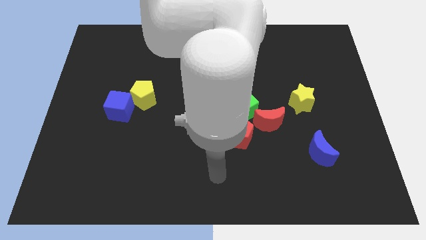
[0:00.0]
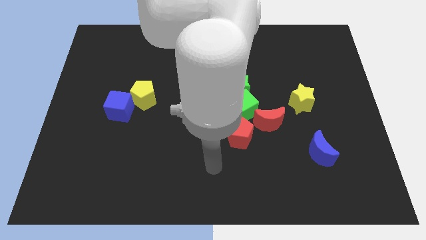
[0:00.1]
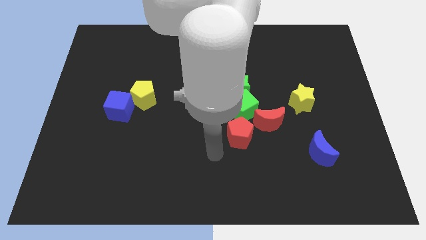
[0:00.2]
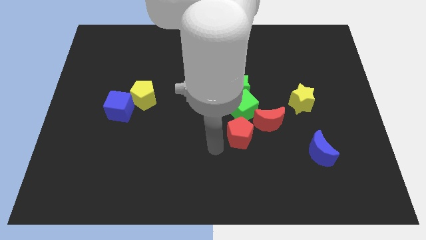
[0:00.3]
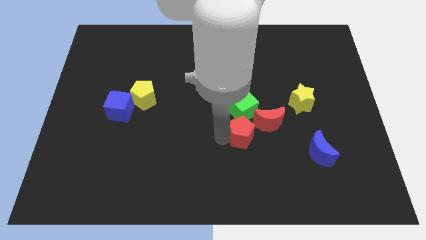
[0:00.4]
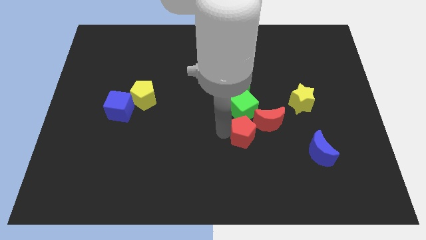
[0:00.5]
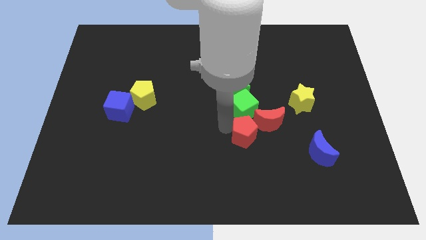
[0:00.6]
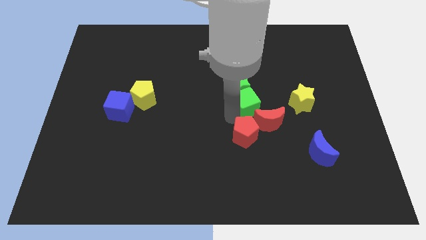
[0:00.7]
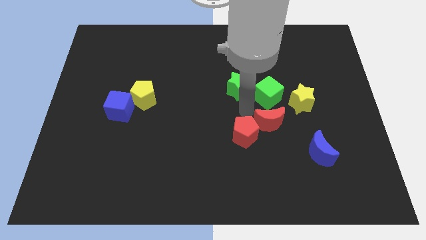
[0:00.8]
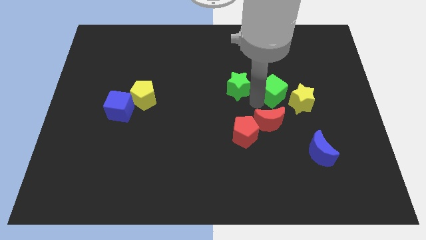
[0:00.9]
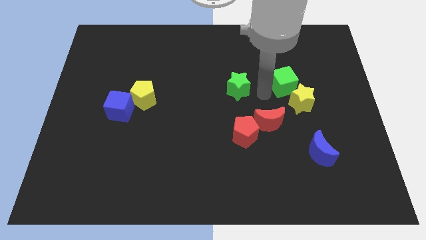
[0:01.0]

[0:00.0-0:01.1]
separate the green star from the green cube

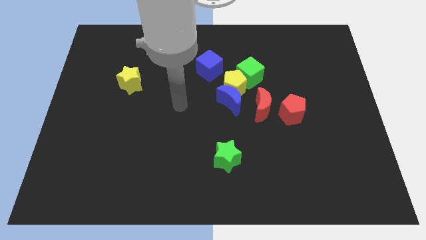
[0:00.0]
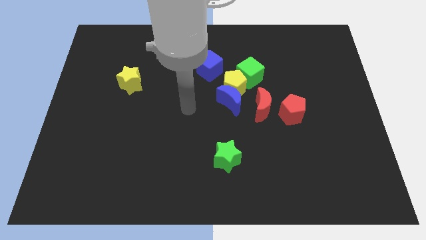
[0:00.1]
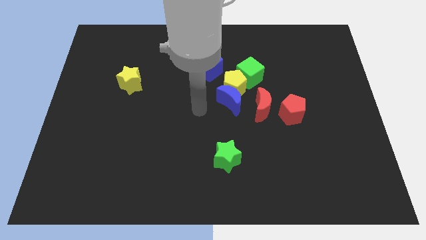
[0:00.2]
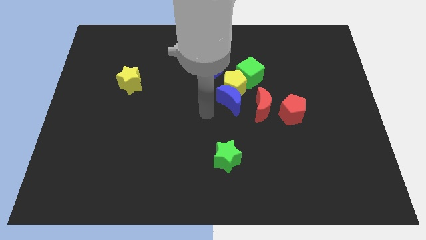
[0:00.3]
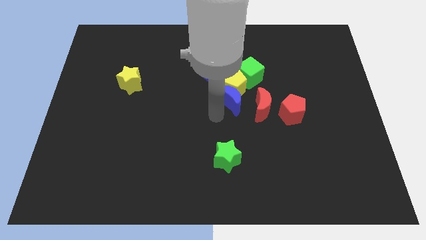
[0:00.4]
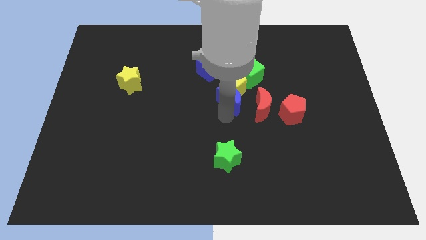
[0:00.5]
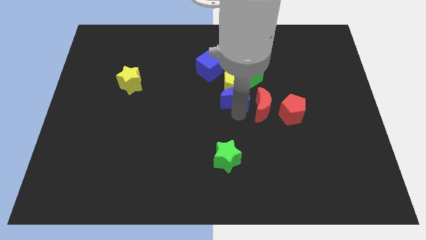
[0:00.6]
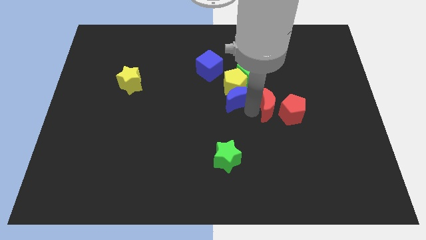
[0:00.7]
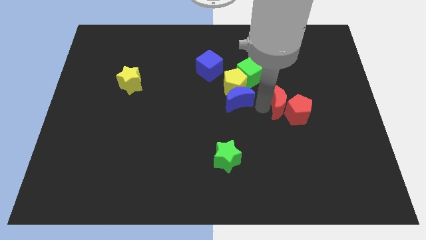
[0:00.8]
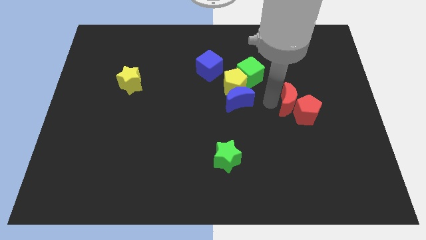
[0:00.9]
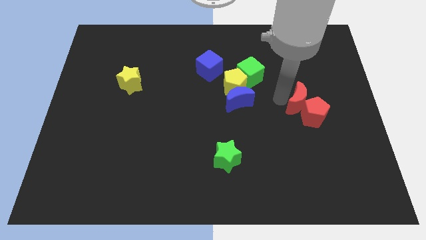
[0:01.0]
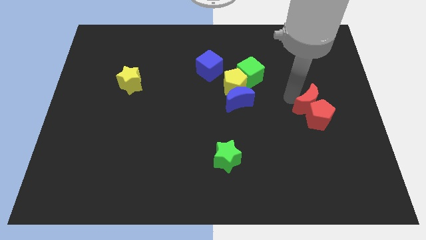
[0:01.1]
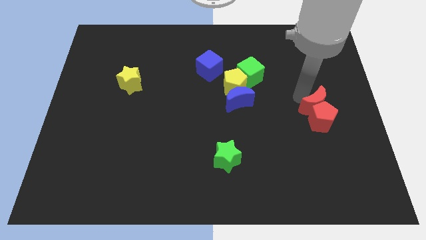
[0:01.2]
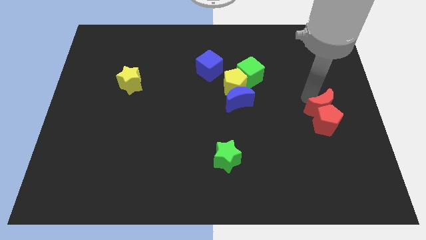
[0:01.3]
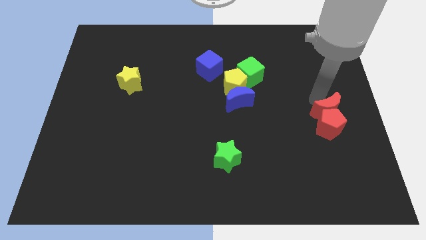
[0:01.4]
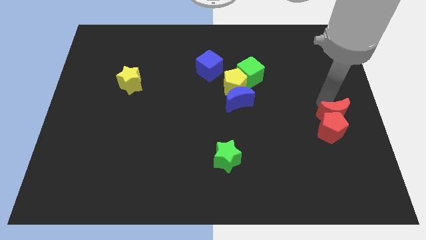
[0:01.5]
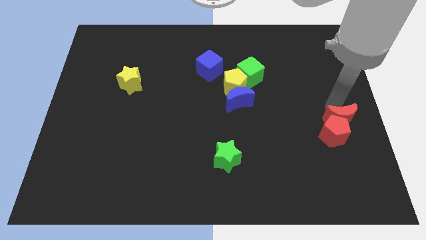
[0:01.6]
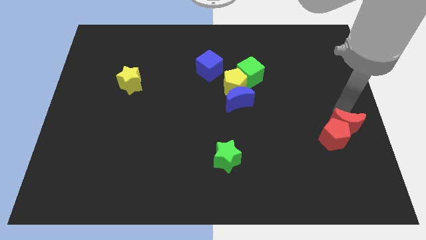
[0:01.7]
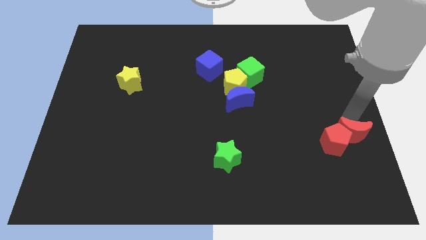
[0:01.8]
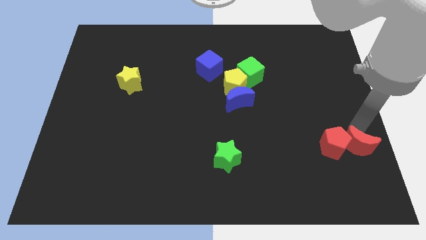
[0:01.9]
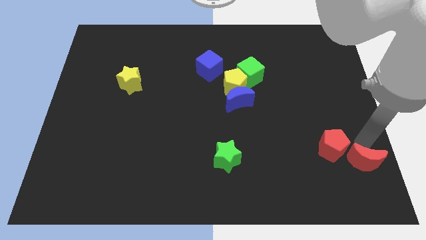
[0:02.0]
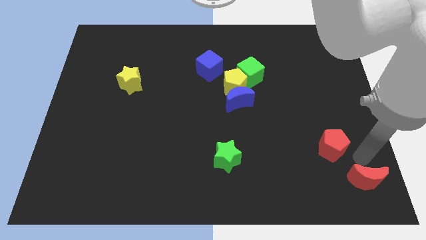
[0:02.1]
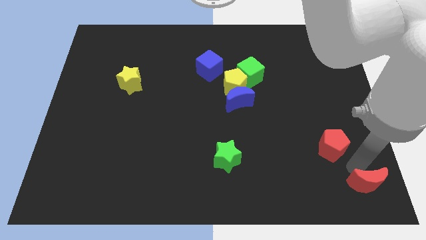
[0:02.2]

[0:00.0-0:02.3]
pull the red pentagon apart from the red moon

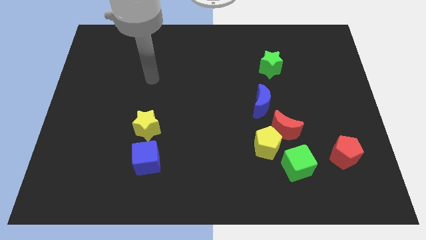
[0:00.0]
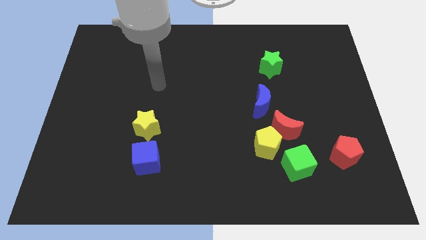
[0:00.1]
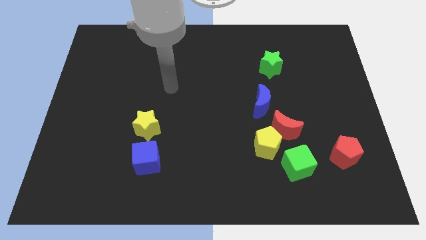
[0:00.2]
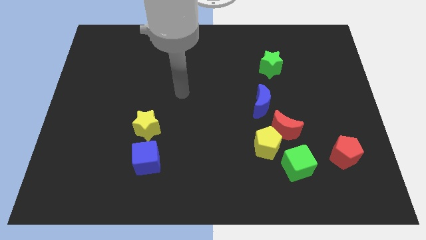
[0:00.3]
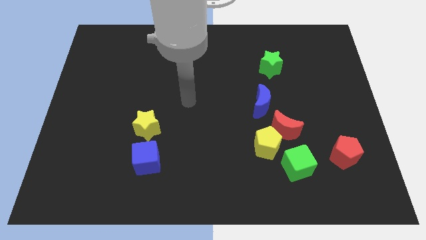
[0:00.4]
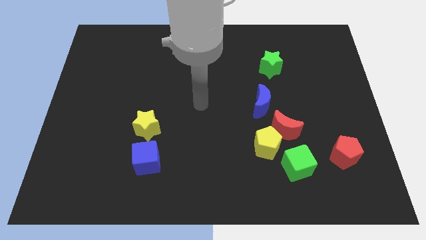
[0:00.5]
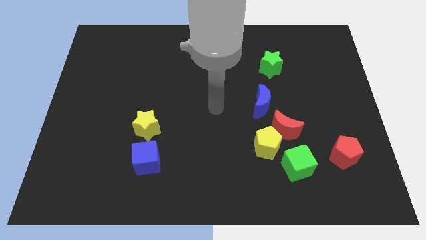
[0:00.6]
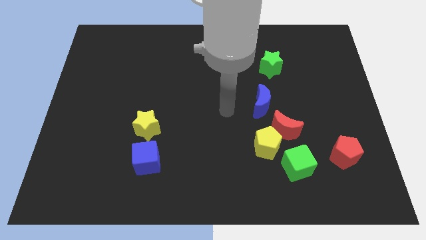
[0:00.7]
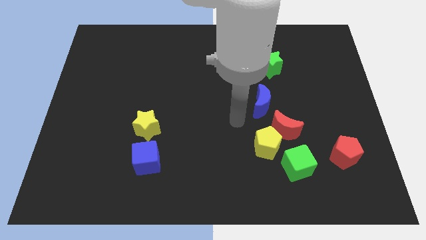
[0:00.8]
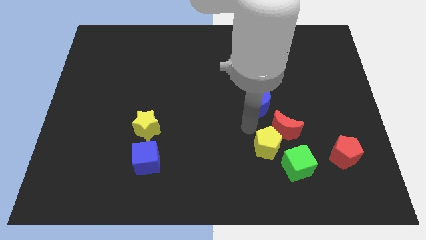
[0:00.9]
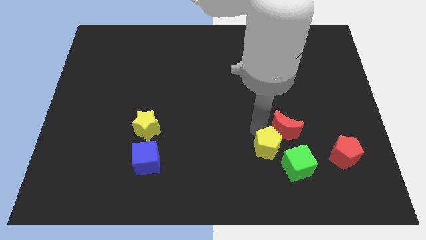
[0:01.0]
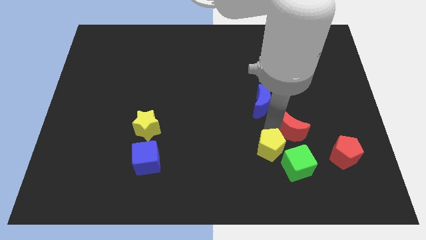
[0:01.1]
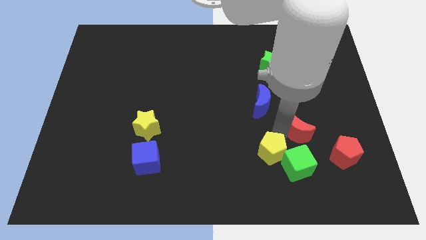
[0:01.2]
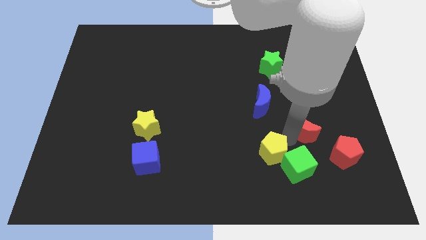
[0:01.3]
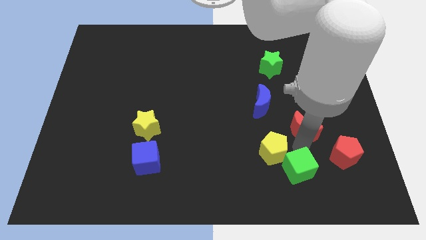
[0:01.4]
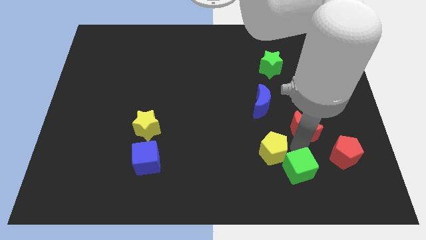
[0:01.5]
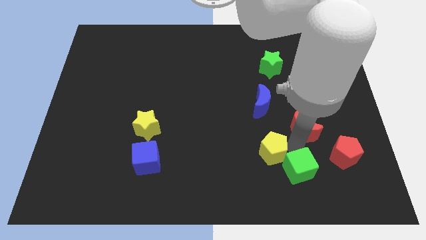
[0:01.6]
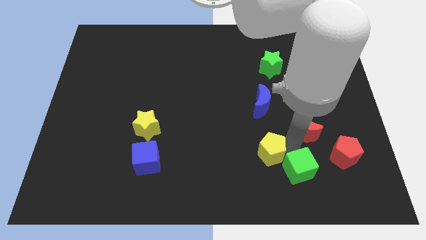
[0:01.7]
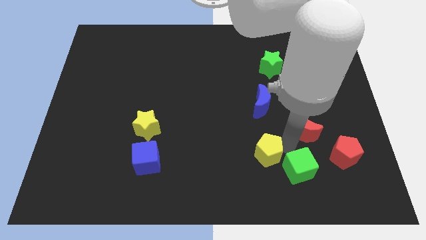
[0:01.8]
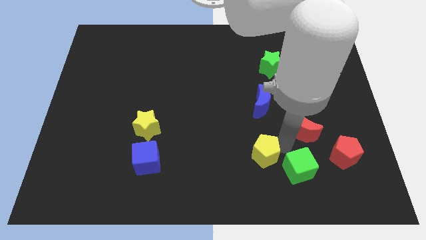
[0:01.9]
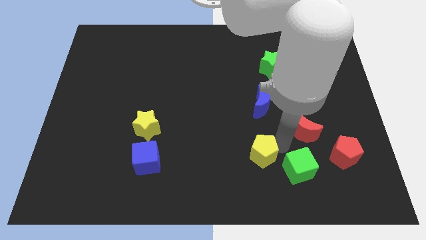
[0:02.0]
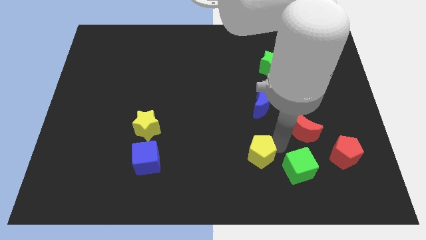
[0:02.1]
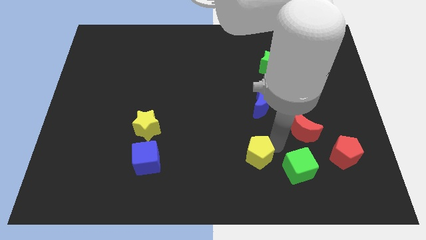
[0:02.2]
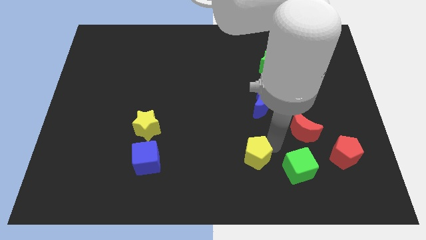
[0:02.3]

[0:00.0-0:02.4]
separate the yellow pentagon from the red moon and green cube

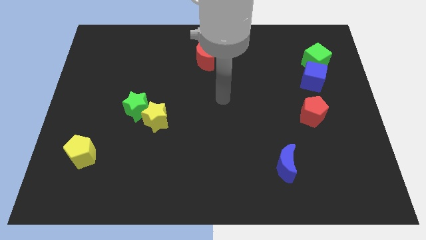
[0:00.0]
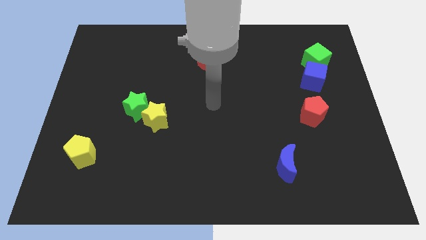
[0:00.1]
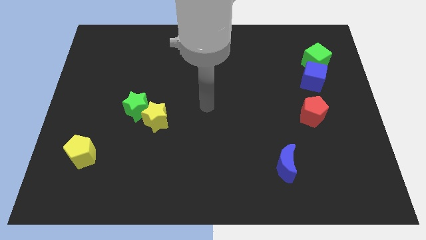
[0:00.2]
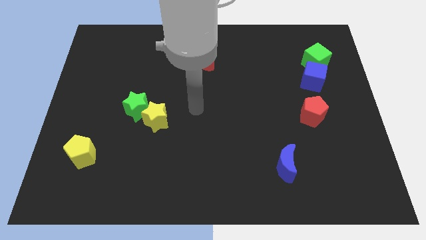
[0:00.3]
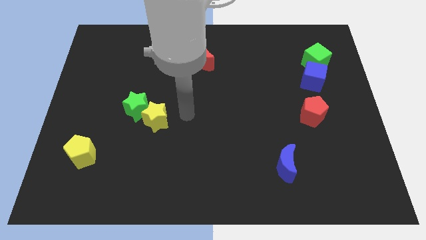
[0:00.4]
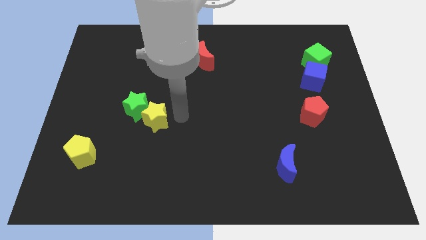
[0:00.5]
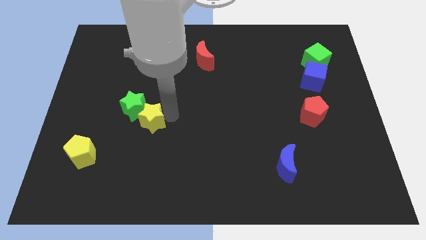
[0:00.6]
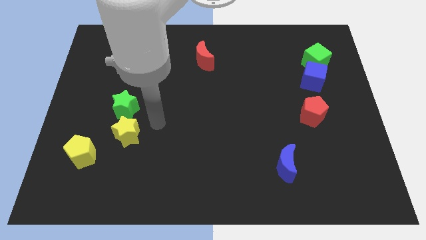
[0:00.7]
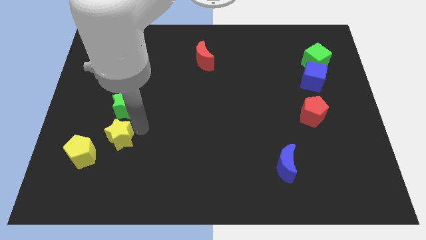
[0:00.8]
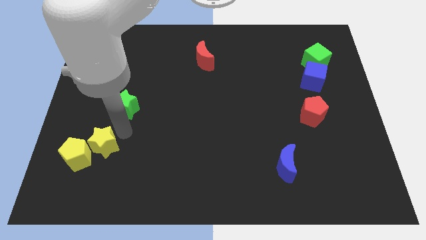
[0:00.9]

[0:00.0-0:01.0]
move the green star away from the yellow star

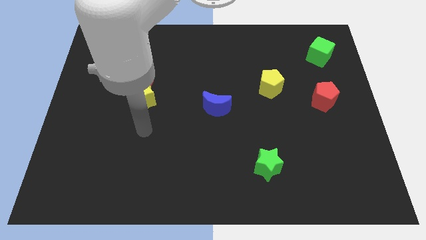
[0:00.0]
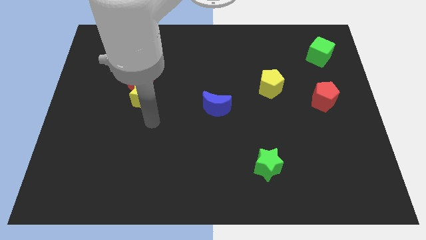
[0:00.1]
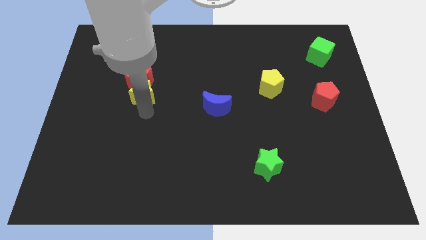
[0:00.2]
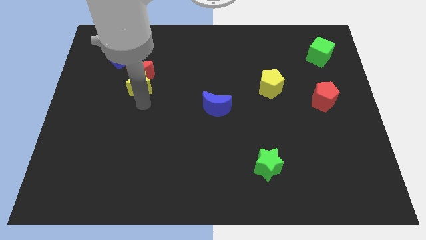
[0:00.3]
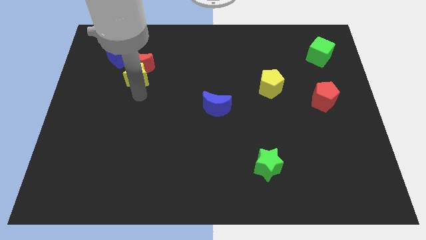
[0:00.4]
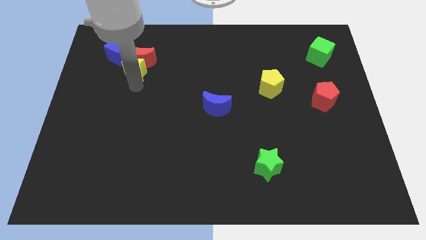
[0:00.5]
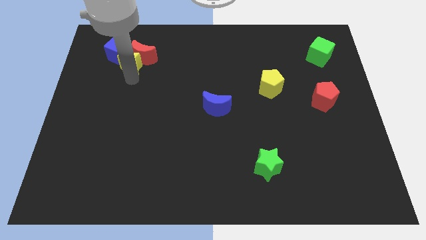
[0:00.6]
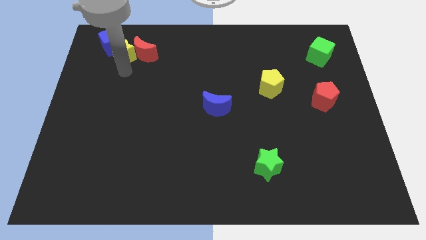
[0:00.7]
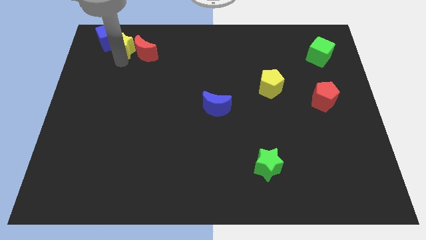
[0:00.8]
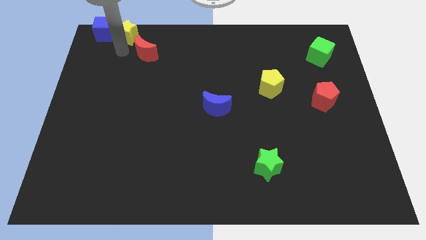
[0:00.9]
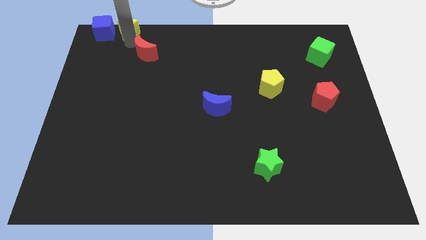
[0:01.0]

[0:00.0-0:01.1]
pull the red moon apart from the yellow star

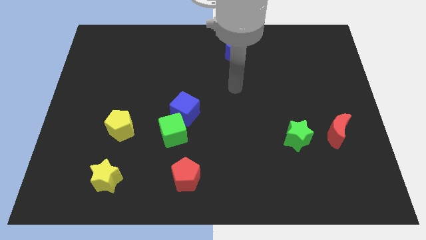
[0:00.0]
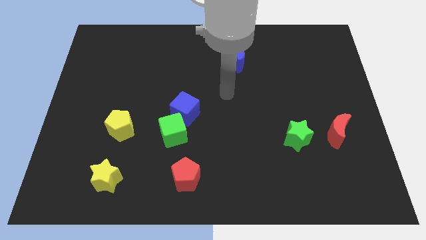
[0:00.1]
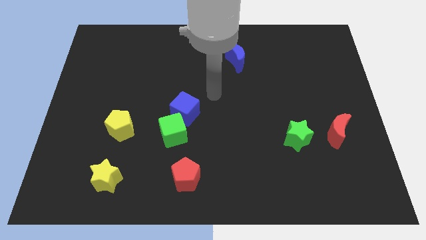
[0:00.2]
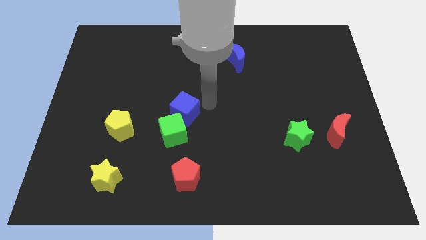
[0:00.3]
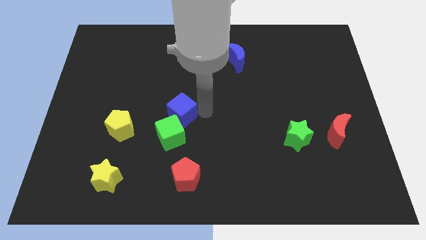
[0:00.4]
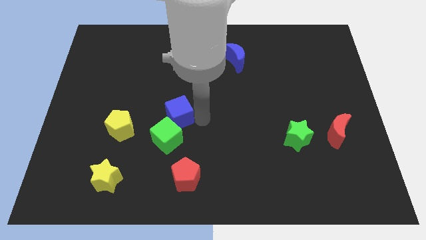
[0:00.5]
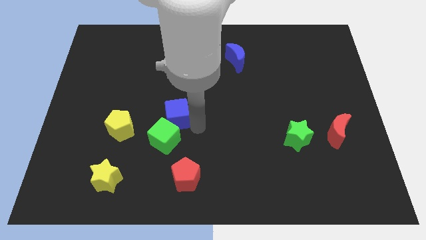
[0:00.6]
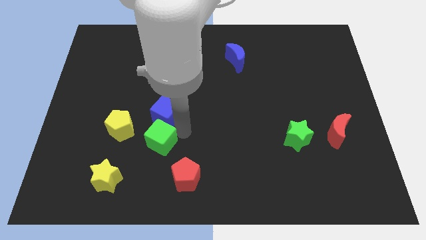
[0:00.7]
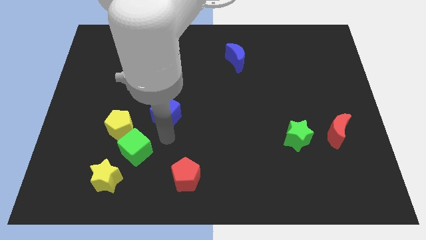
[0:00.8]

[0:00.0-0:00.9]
separate the blue cube from the green cube

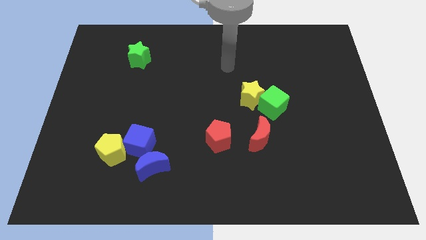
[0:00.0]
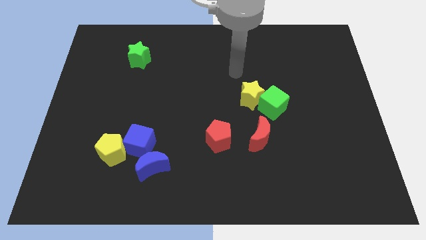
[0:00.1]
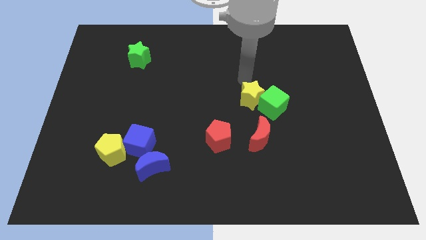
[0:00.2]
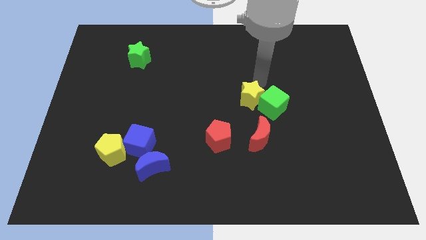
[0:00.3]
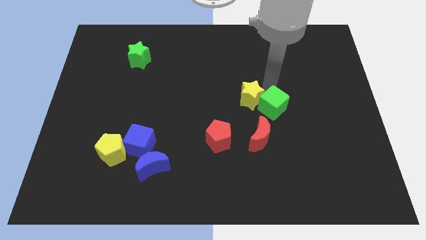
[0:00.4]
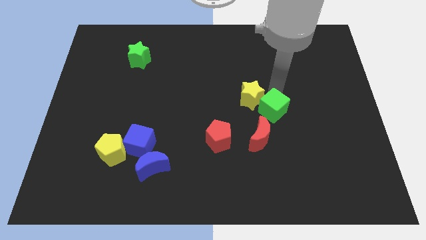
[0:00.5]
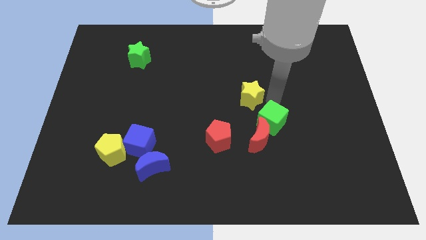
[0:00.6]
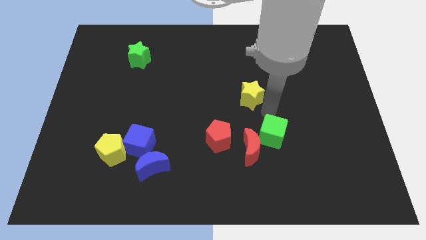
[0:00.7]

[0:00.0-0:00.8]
move the yellow star away from the green cube
